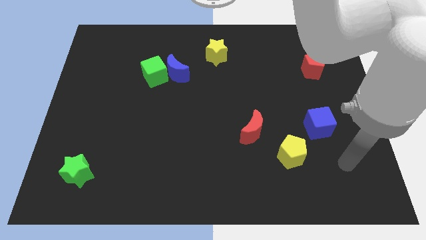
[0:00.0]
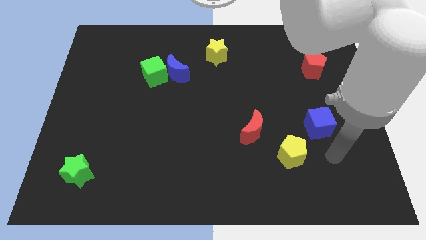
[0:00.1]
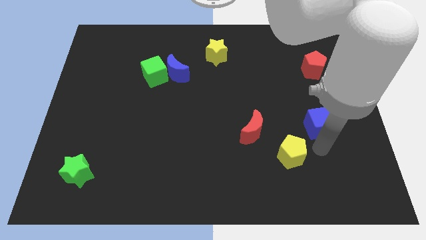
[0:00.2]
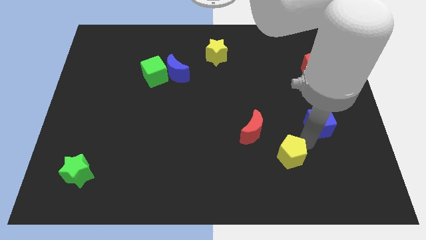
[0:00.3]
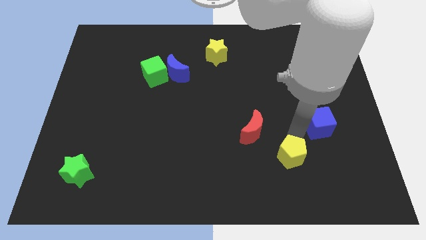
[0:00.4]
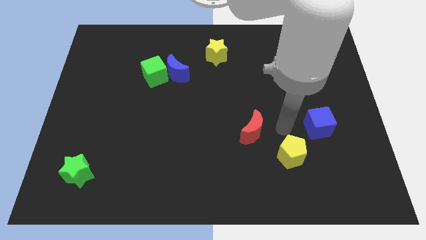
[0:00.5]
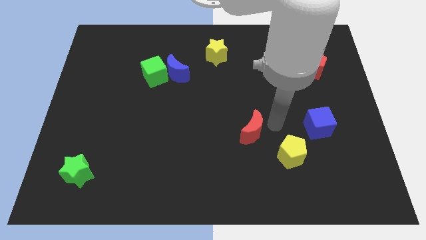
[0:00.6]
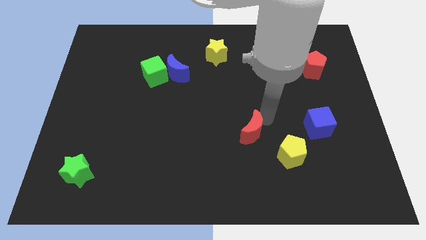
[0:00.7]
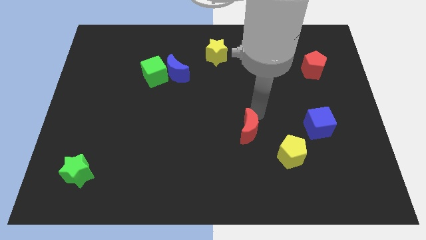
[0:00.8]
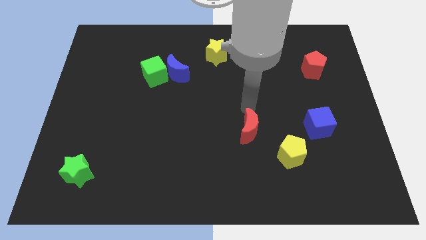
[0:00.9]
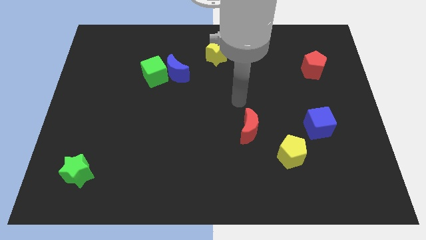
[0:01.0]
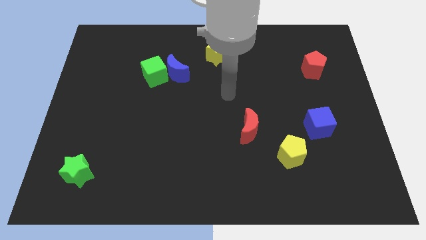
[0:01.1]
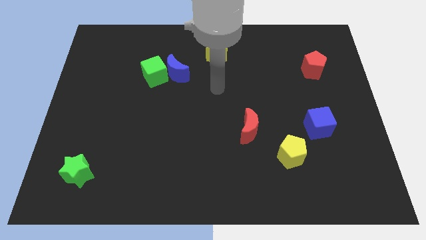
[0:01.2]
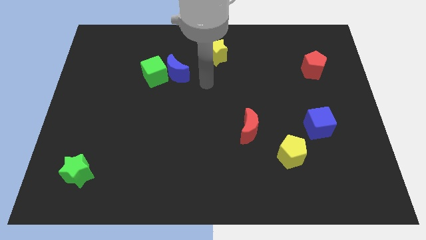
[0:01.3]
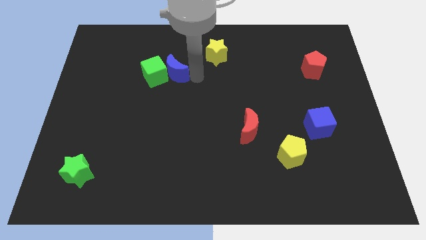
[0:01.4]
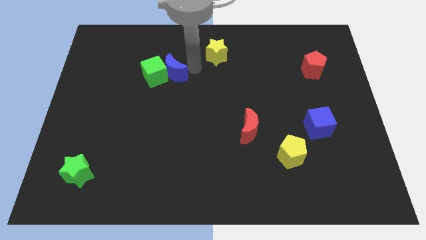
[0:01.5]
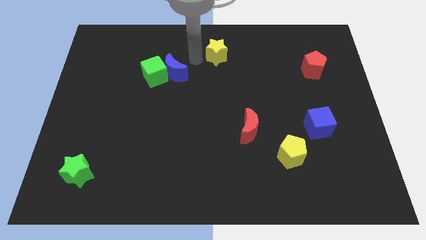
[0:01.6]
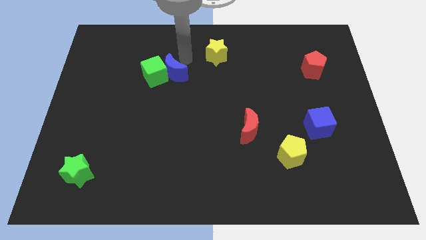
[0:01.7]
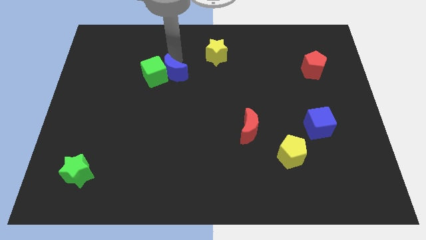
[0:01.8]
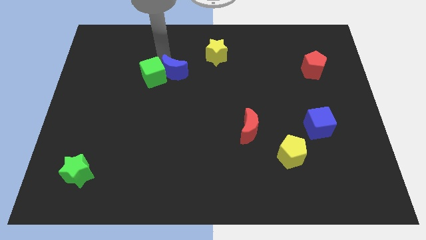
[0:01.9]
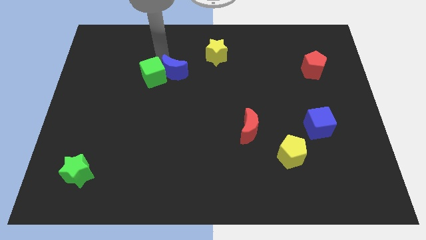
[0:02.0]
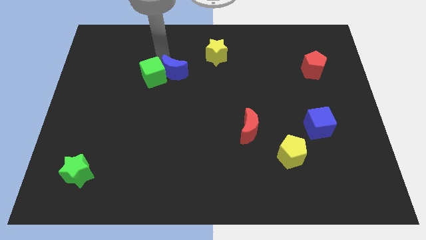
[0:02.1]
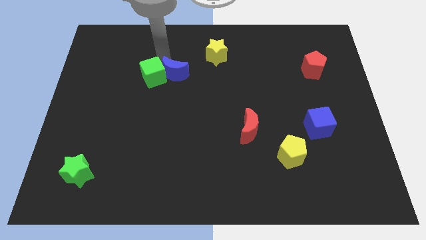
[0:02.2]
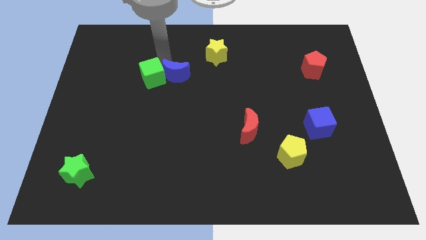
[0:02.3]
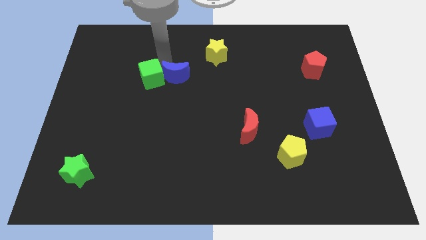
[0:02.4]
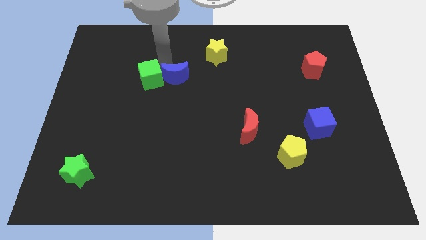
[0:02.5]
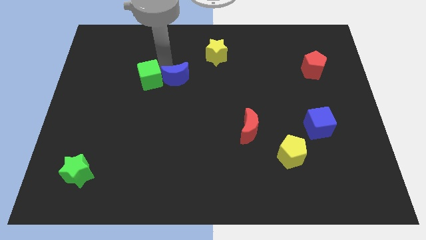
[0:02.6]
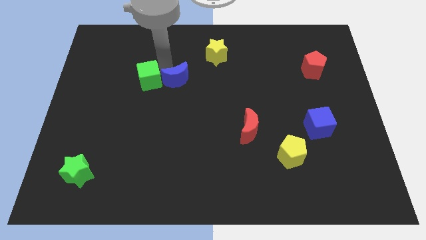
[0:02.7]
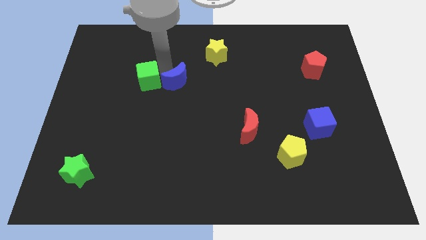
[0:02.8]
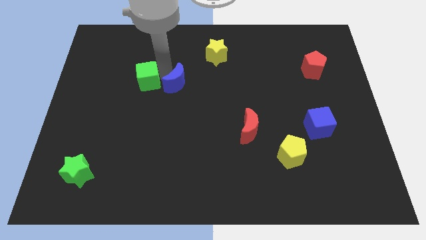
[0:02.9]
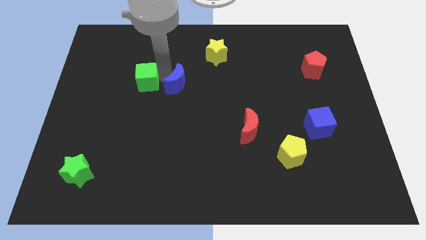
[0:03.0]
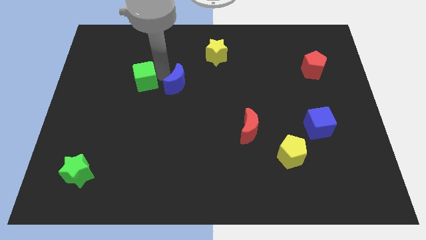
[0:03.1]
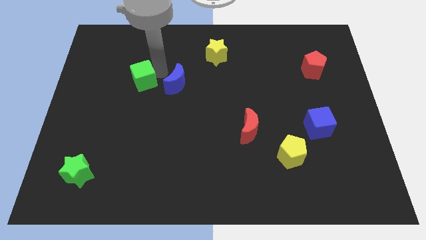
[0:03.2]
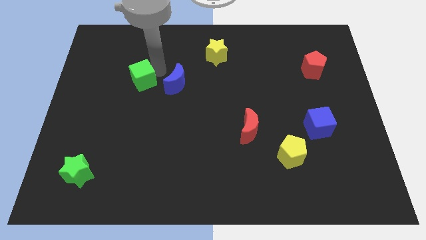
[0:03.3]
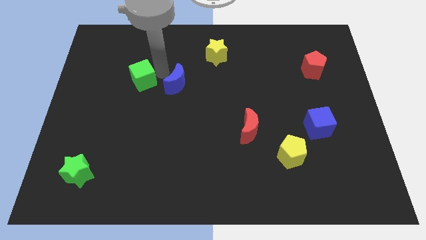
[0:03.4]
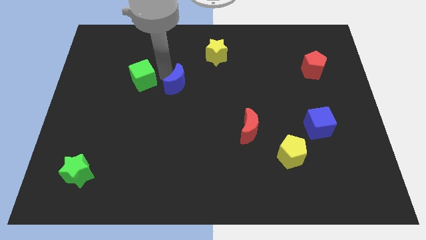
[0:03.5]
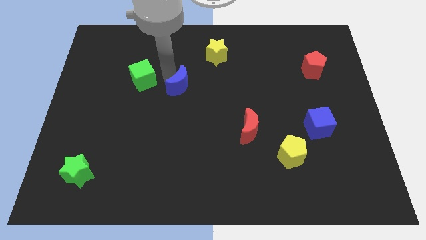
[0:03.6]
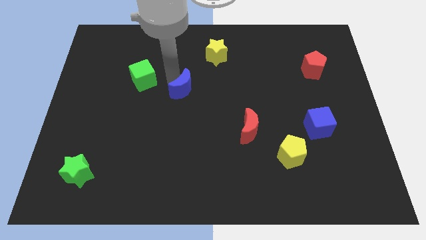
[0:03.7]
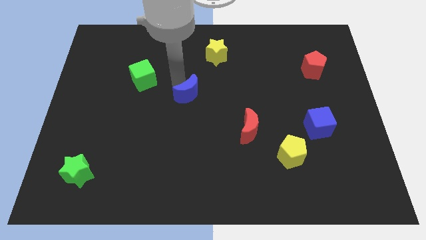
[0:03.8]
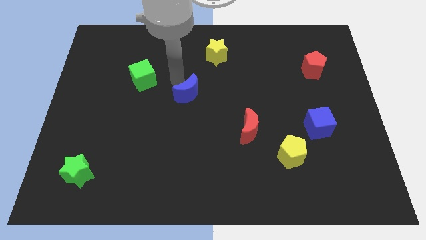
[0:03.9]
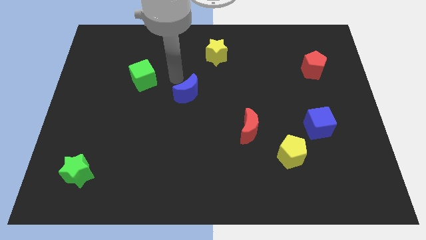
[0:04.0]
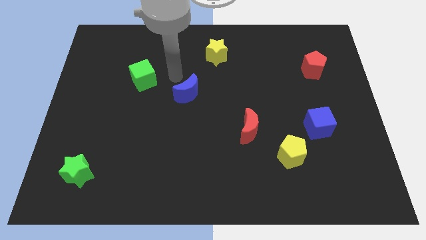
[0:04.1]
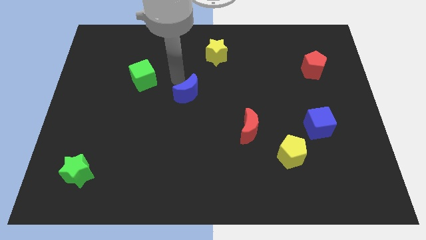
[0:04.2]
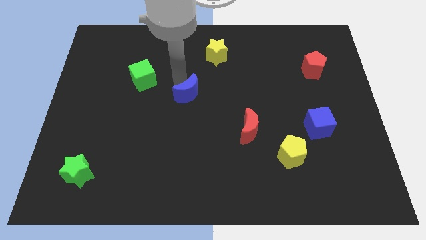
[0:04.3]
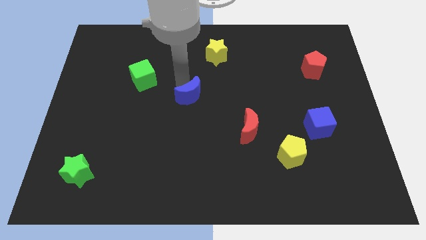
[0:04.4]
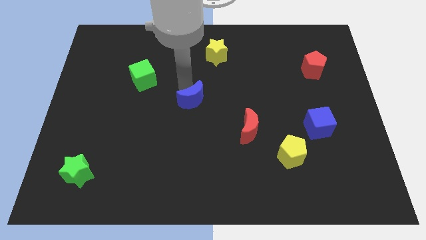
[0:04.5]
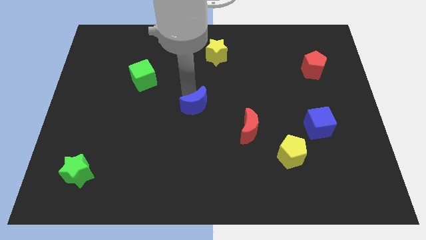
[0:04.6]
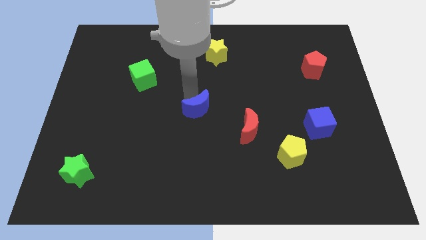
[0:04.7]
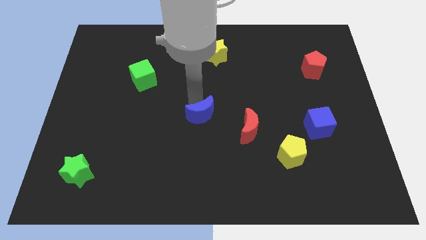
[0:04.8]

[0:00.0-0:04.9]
push the blue moon just left of the red moon

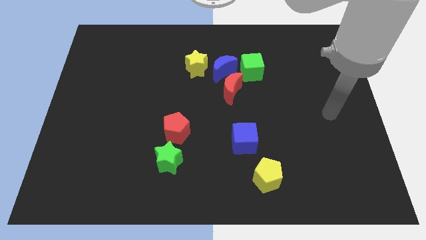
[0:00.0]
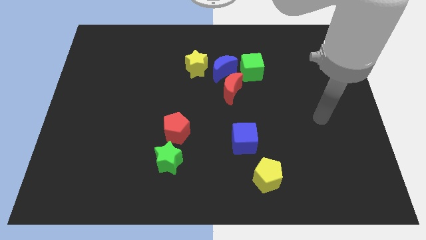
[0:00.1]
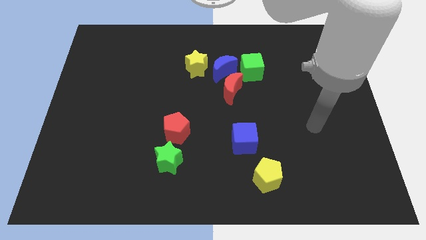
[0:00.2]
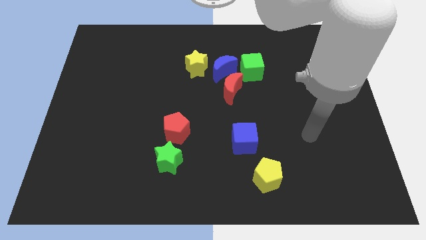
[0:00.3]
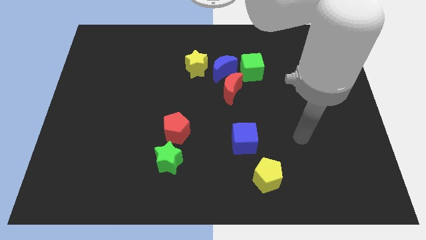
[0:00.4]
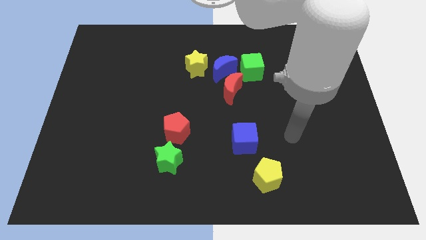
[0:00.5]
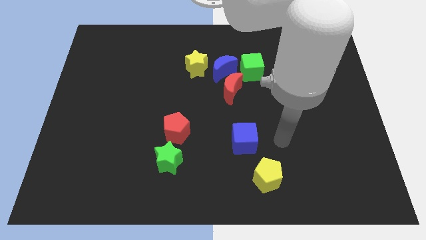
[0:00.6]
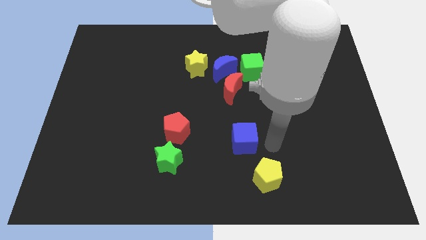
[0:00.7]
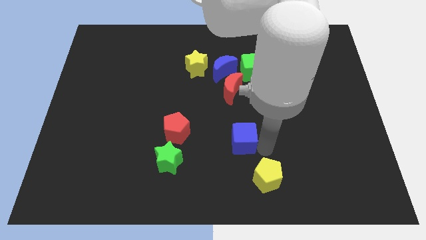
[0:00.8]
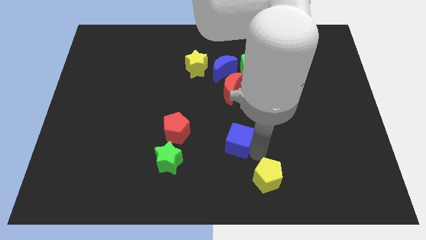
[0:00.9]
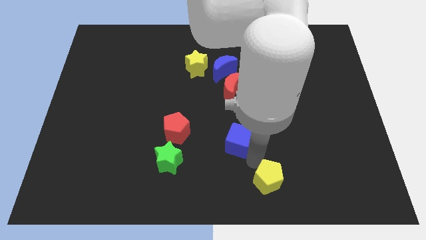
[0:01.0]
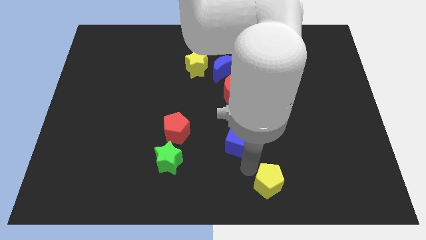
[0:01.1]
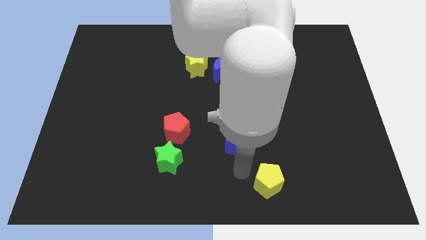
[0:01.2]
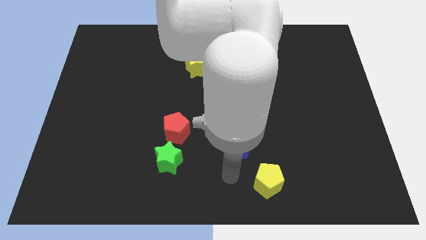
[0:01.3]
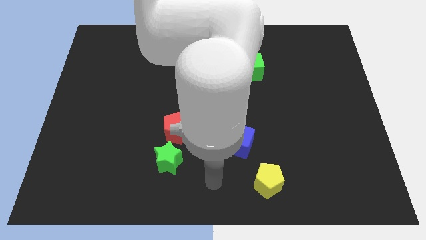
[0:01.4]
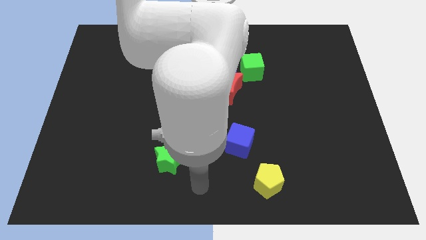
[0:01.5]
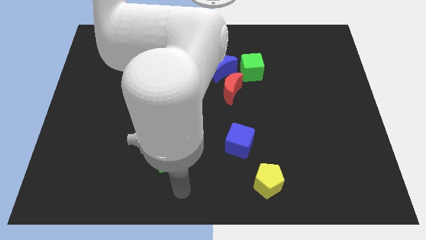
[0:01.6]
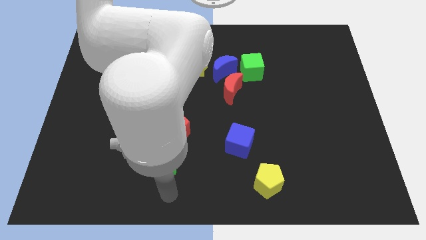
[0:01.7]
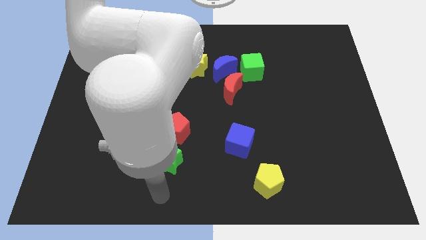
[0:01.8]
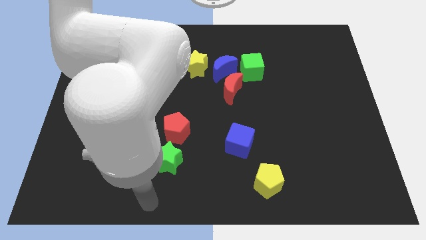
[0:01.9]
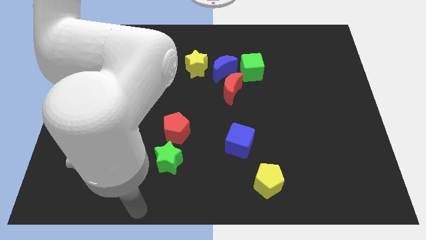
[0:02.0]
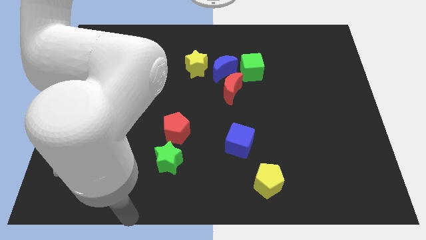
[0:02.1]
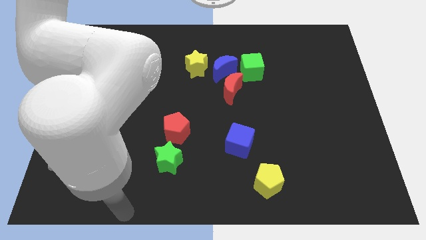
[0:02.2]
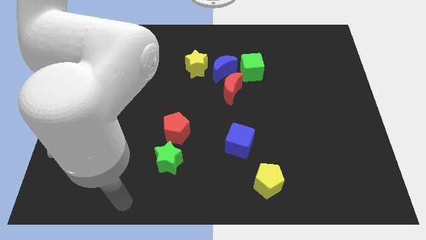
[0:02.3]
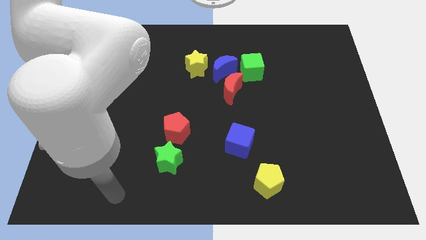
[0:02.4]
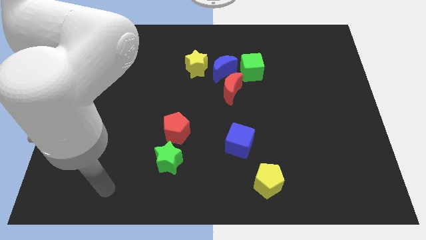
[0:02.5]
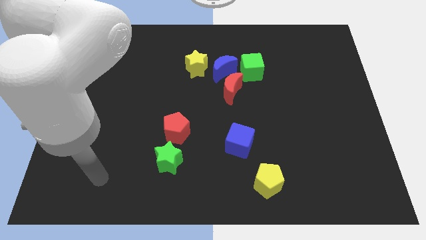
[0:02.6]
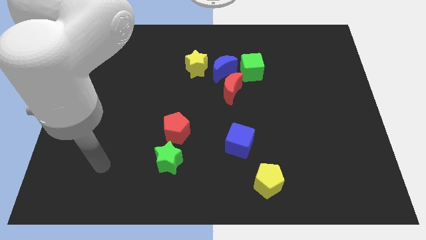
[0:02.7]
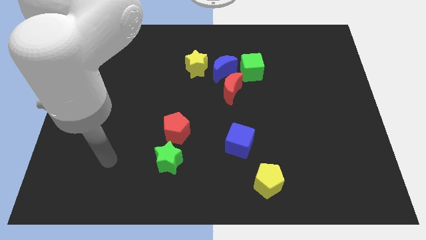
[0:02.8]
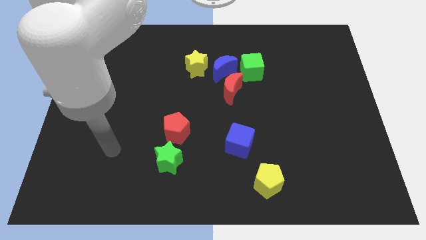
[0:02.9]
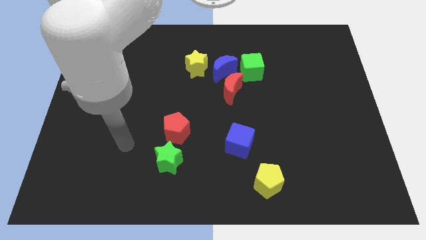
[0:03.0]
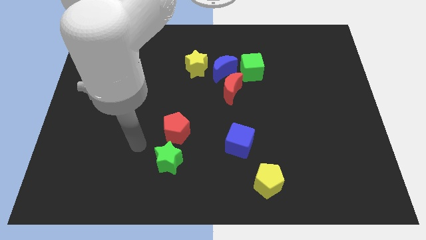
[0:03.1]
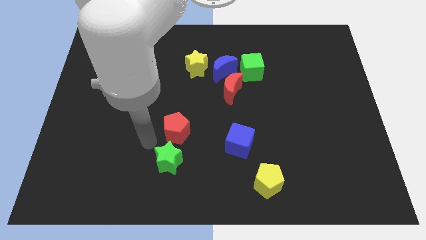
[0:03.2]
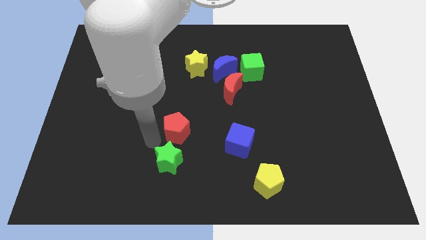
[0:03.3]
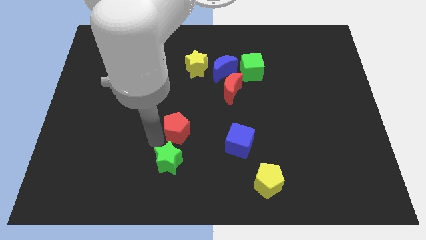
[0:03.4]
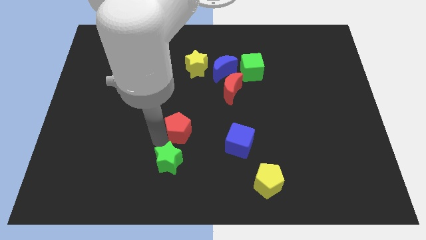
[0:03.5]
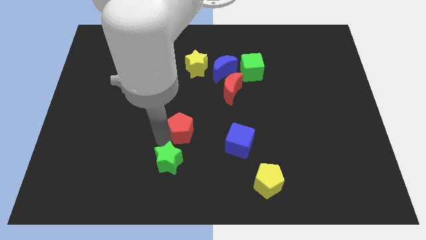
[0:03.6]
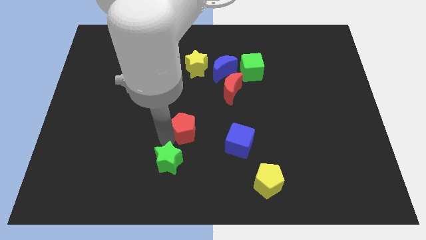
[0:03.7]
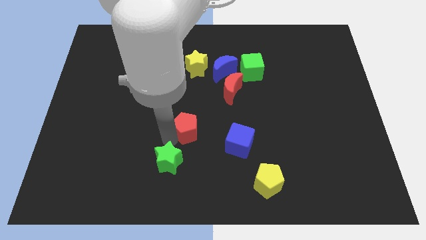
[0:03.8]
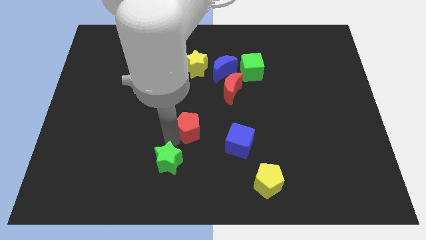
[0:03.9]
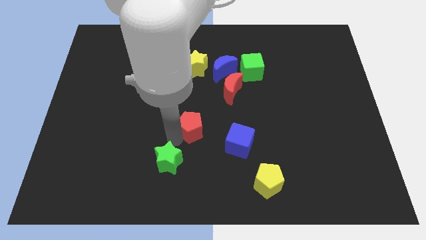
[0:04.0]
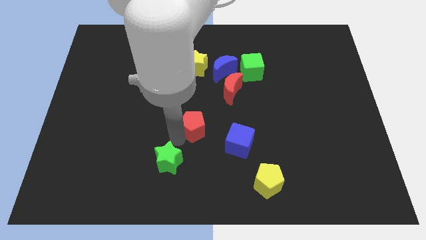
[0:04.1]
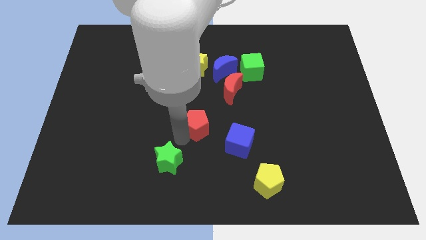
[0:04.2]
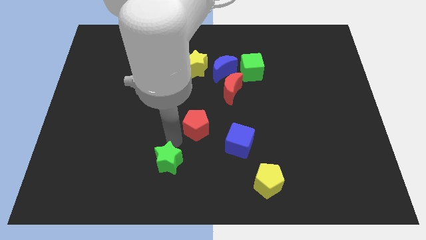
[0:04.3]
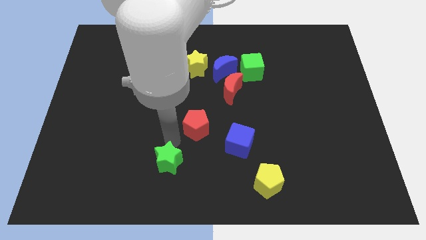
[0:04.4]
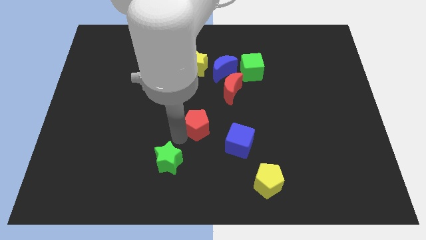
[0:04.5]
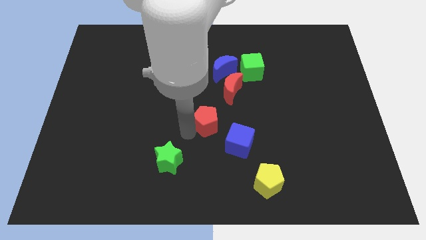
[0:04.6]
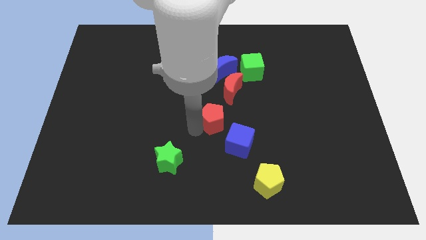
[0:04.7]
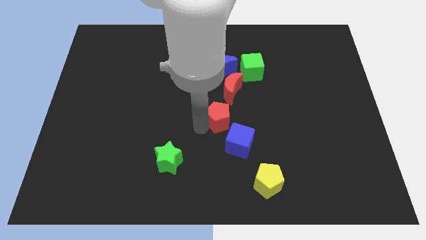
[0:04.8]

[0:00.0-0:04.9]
slide the red pentagon to the top side of the blue cube
